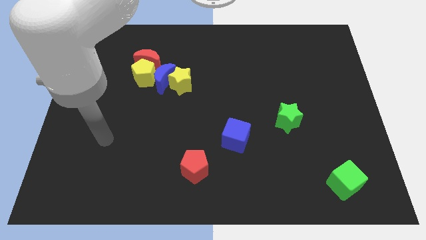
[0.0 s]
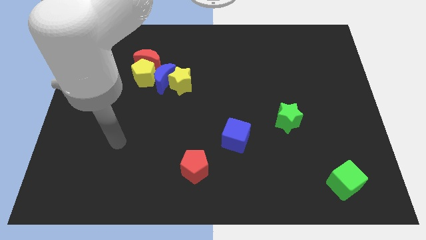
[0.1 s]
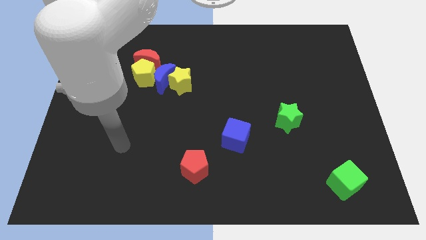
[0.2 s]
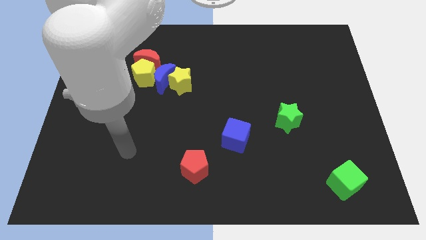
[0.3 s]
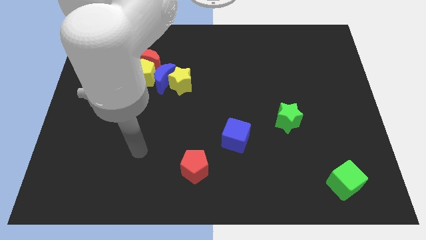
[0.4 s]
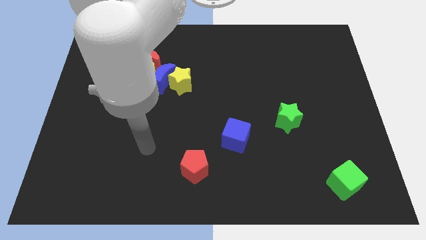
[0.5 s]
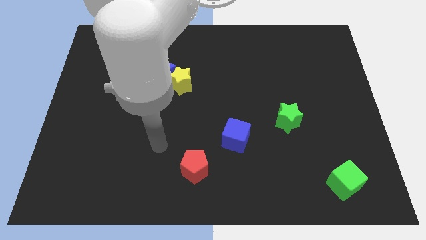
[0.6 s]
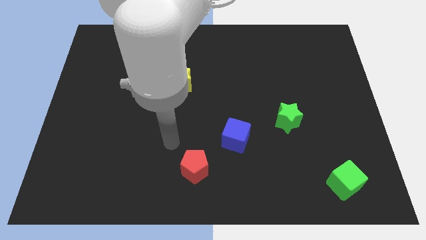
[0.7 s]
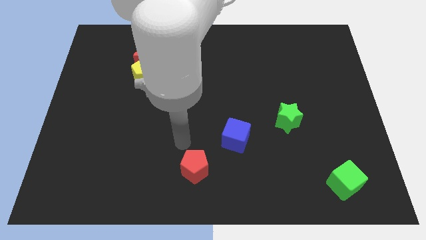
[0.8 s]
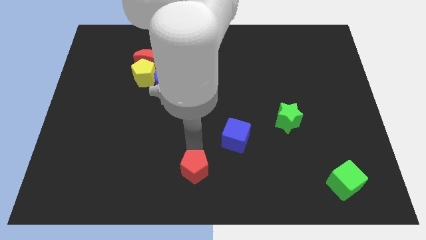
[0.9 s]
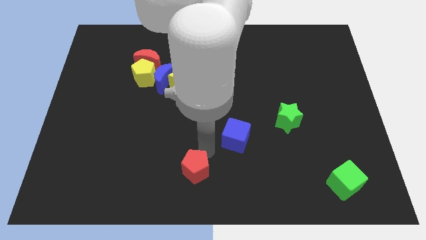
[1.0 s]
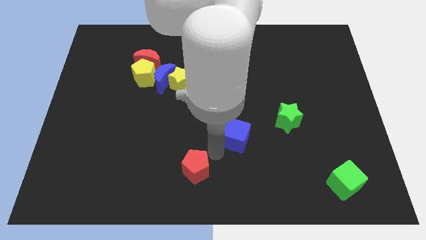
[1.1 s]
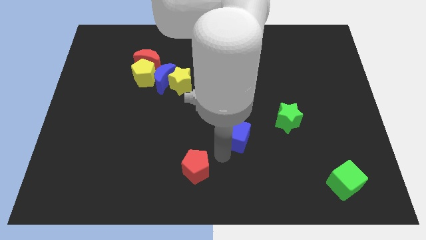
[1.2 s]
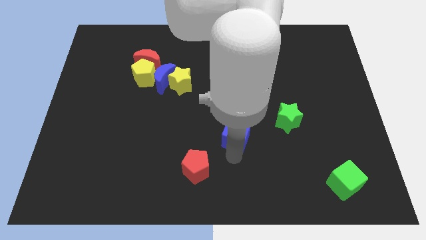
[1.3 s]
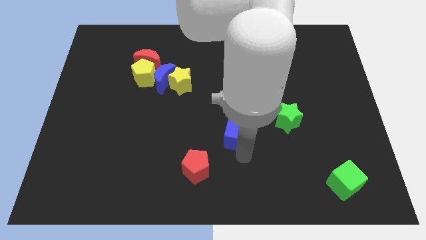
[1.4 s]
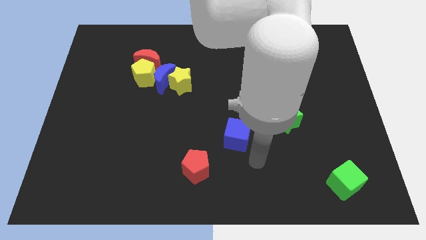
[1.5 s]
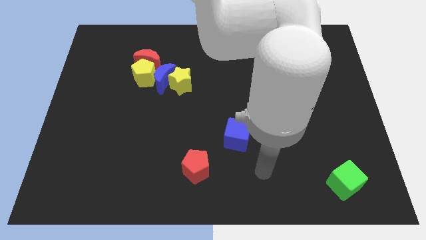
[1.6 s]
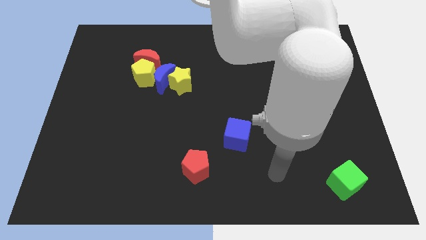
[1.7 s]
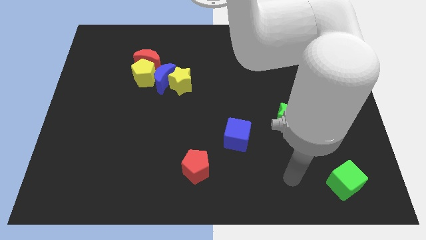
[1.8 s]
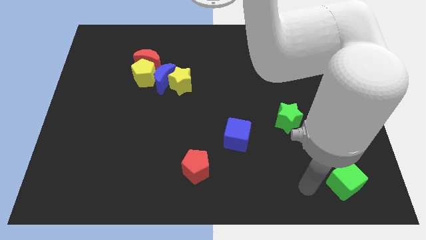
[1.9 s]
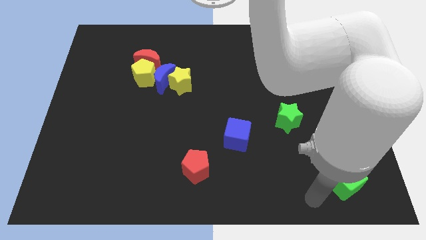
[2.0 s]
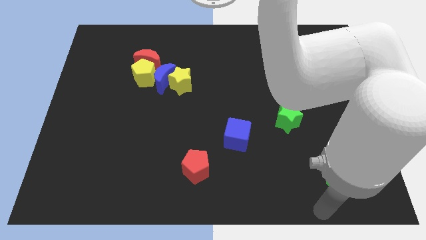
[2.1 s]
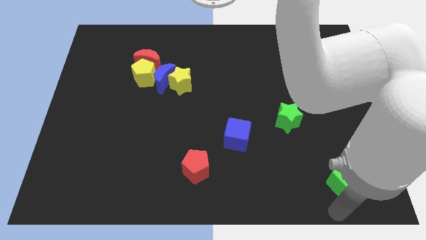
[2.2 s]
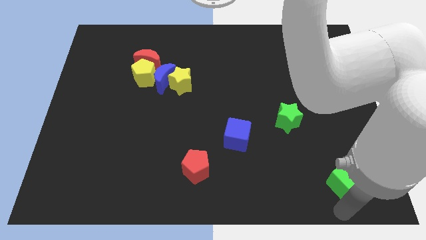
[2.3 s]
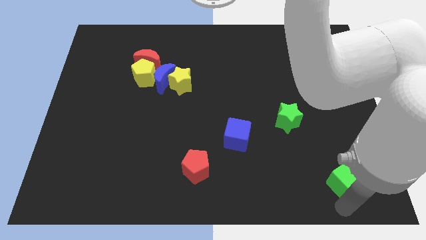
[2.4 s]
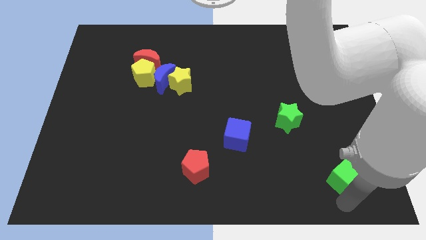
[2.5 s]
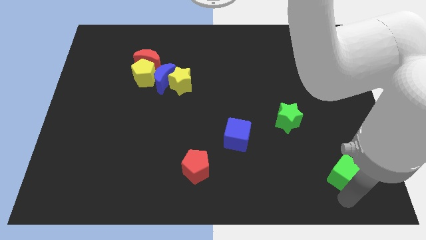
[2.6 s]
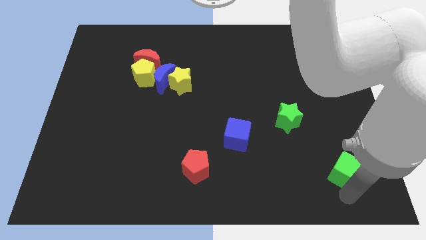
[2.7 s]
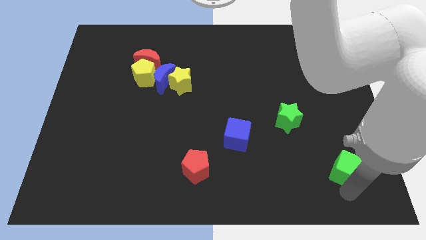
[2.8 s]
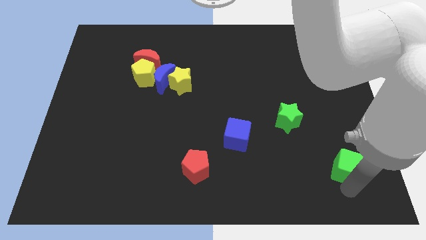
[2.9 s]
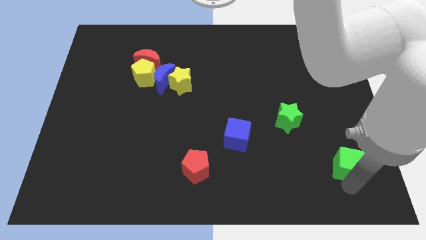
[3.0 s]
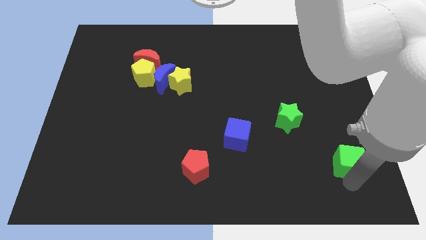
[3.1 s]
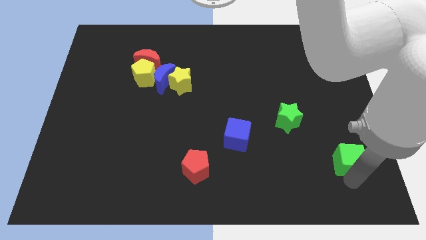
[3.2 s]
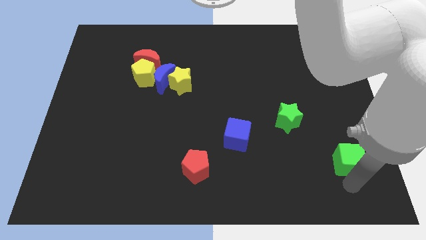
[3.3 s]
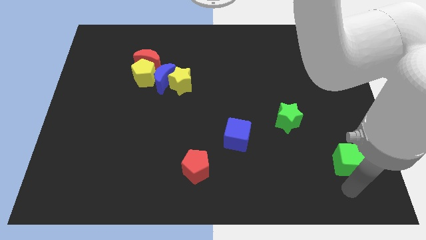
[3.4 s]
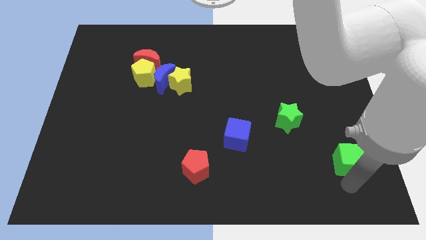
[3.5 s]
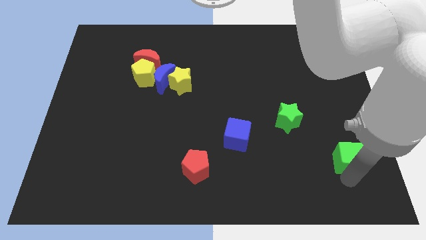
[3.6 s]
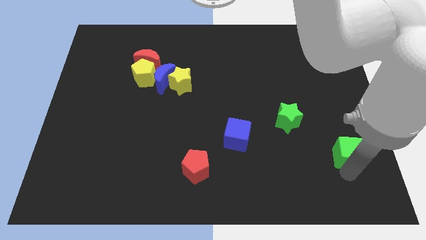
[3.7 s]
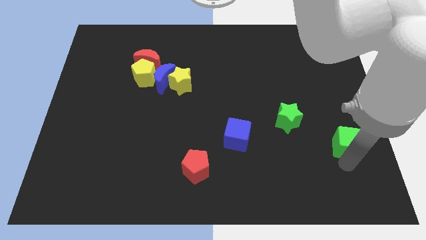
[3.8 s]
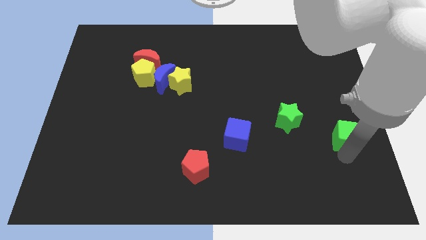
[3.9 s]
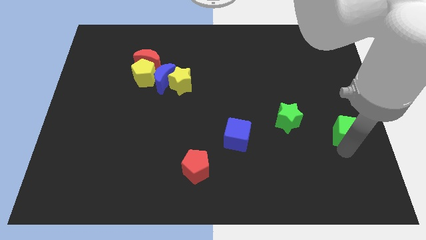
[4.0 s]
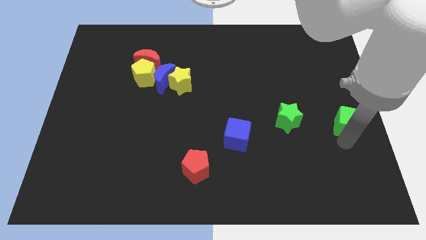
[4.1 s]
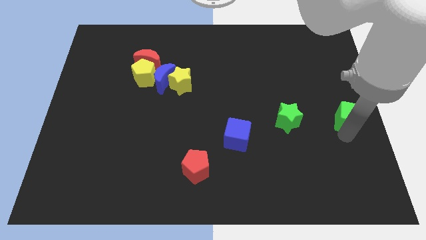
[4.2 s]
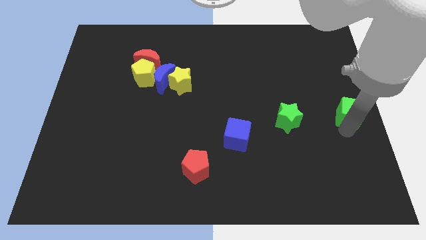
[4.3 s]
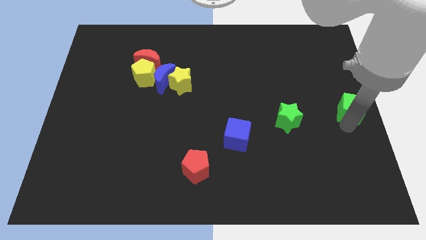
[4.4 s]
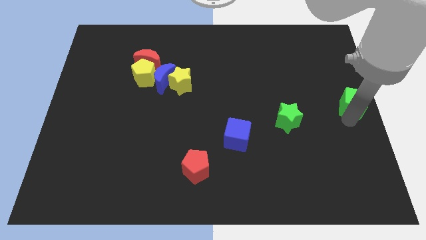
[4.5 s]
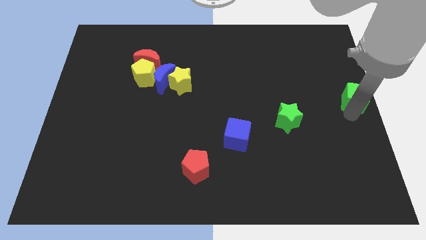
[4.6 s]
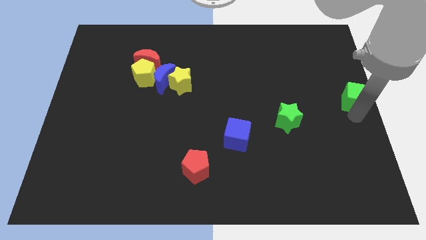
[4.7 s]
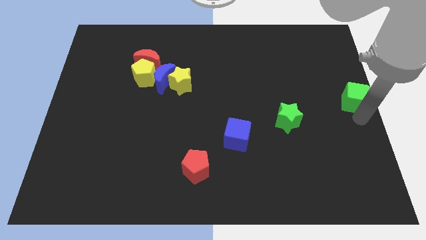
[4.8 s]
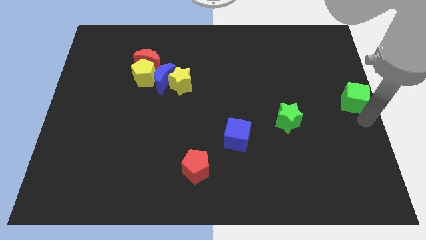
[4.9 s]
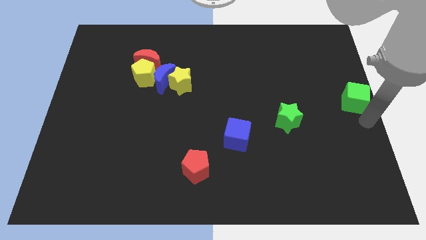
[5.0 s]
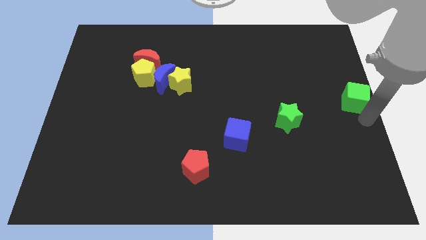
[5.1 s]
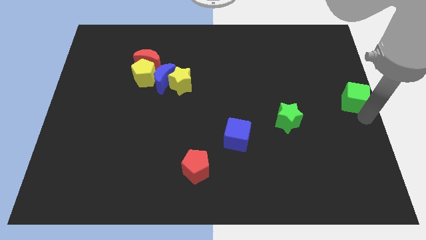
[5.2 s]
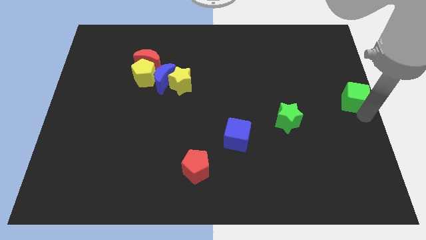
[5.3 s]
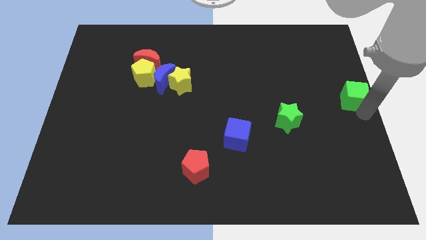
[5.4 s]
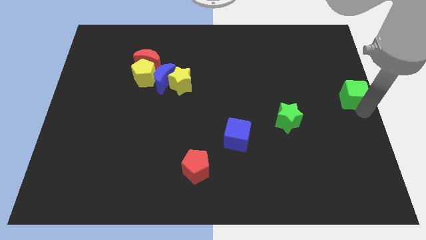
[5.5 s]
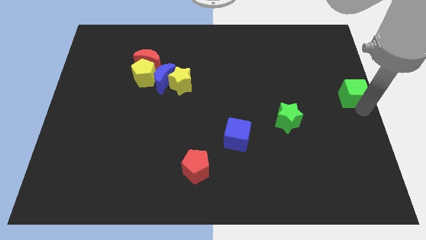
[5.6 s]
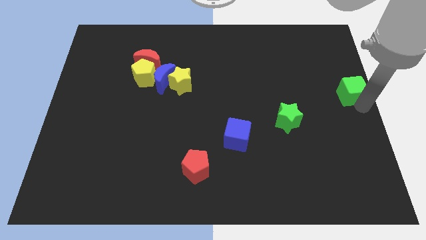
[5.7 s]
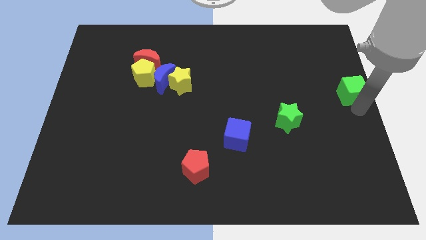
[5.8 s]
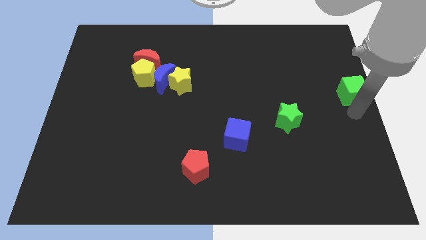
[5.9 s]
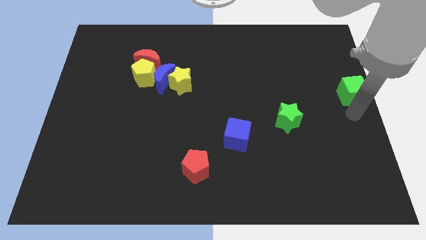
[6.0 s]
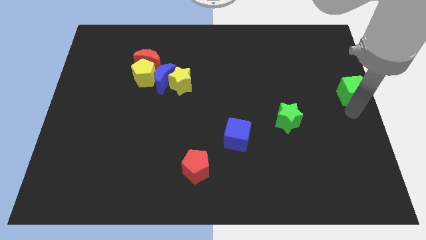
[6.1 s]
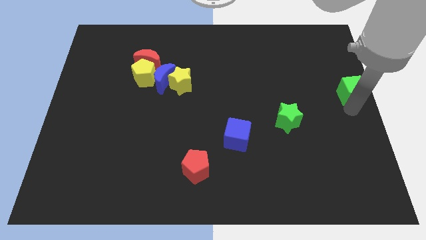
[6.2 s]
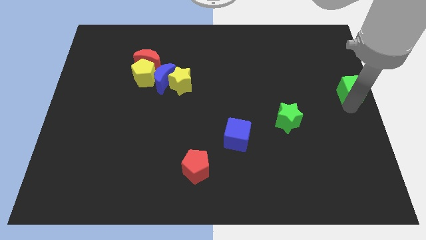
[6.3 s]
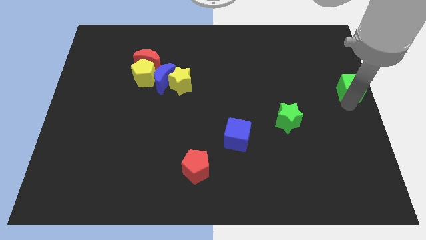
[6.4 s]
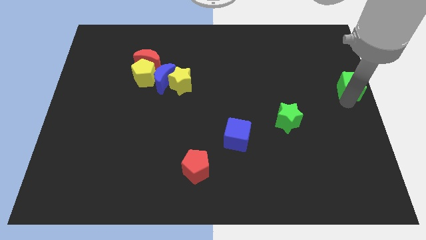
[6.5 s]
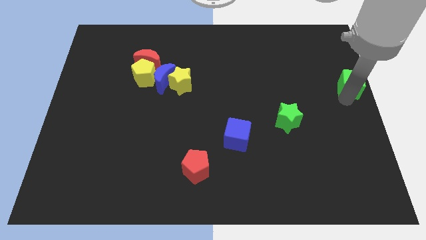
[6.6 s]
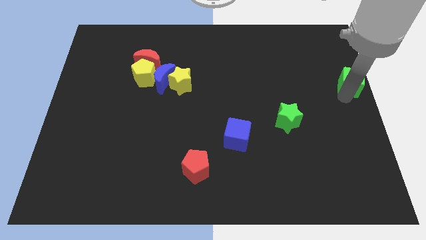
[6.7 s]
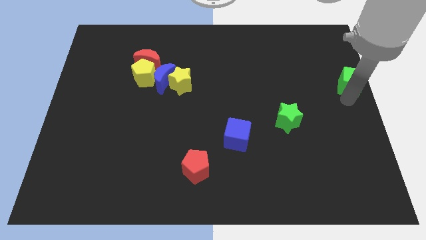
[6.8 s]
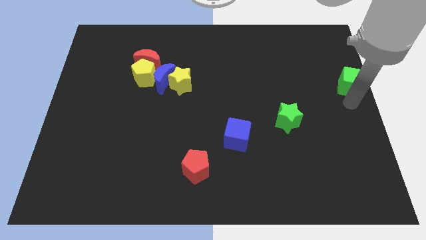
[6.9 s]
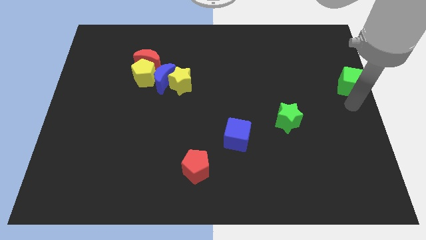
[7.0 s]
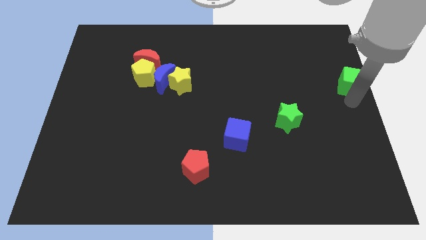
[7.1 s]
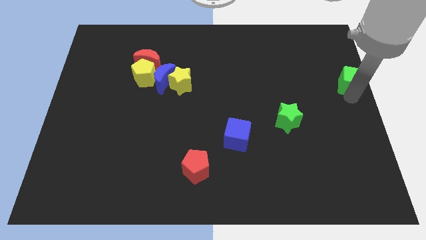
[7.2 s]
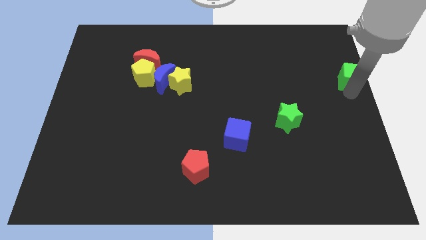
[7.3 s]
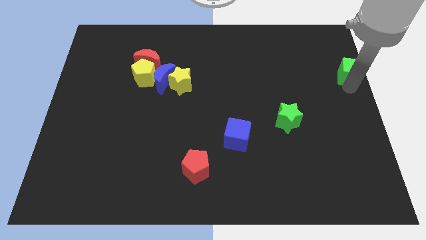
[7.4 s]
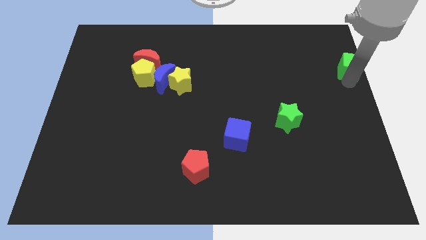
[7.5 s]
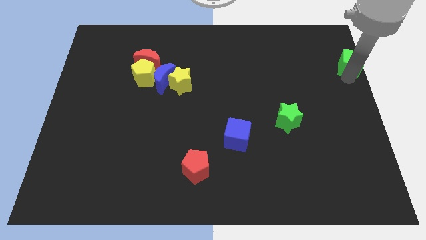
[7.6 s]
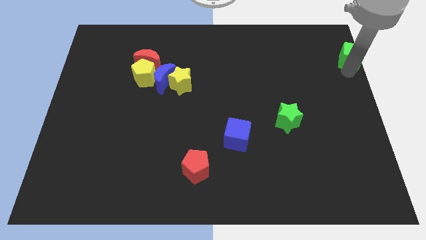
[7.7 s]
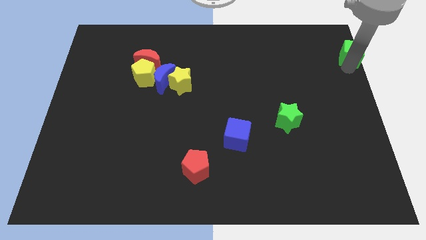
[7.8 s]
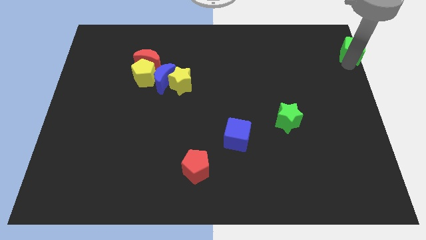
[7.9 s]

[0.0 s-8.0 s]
push the green cube to the top right
